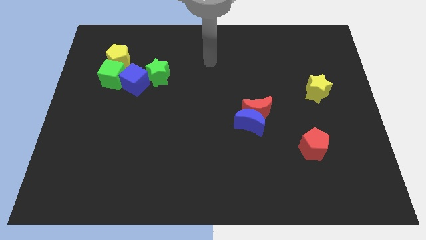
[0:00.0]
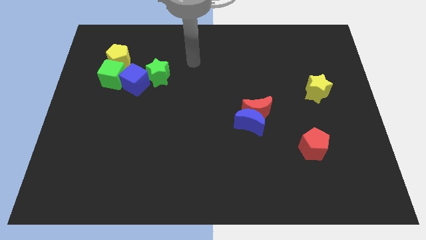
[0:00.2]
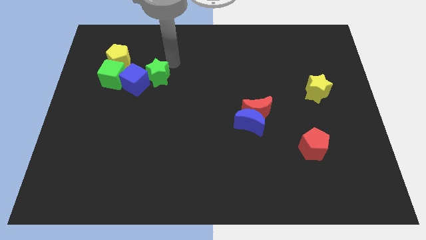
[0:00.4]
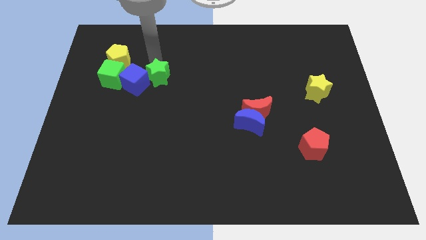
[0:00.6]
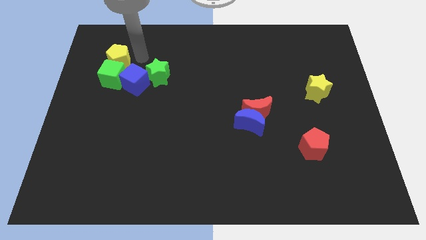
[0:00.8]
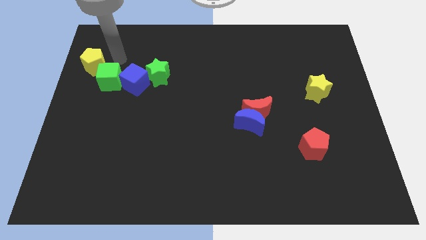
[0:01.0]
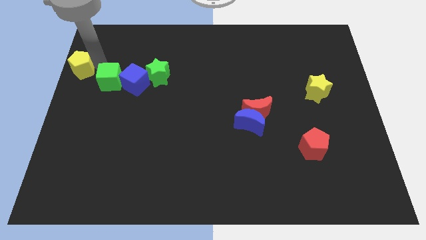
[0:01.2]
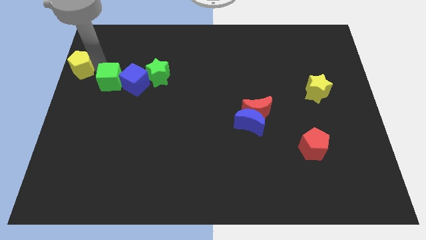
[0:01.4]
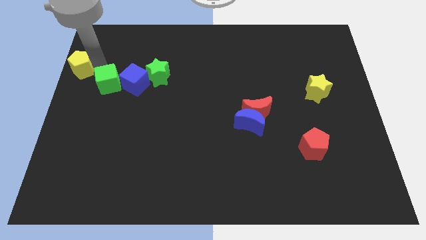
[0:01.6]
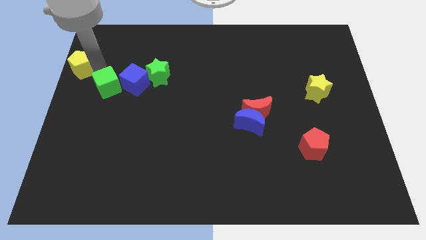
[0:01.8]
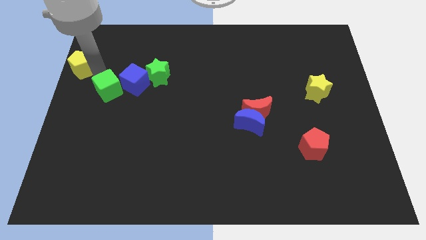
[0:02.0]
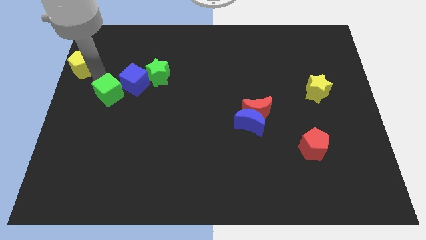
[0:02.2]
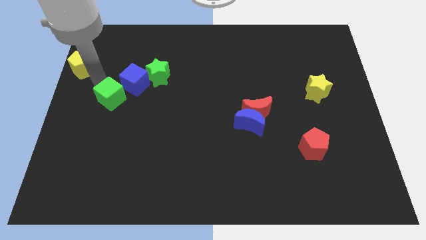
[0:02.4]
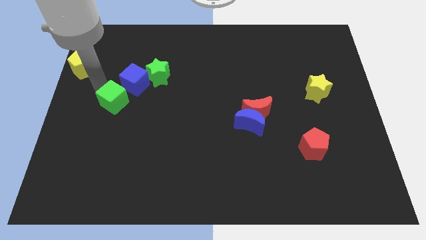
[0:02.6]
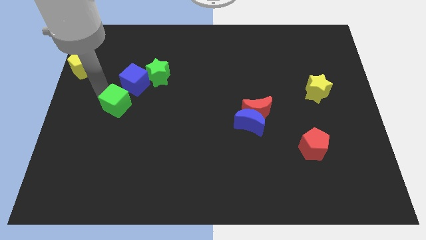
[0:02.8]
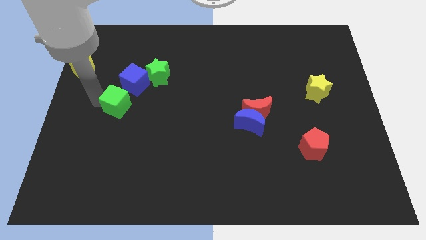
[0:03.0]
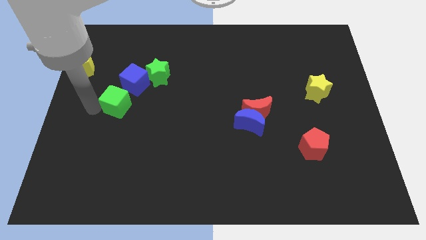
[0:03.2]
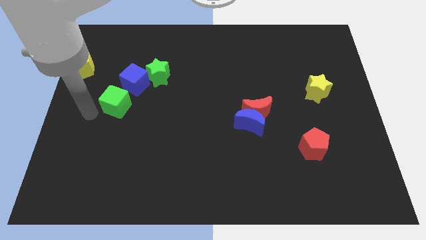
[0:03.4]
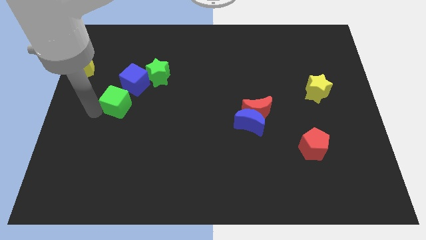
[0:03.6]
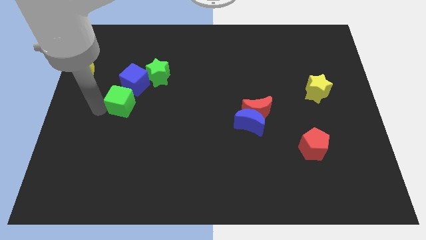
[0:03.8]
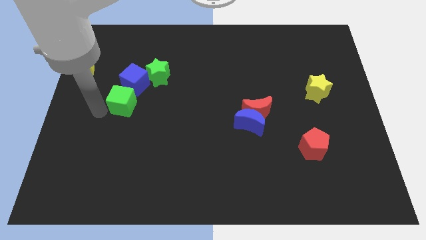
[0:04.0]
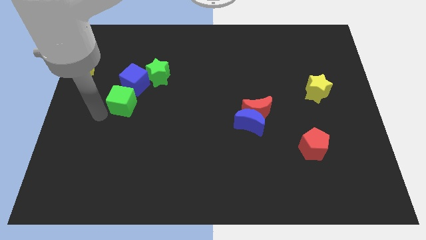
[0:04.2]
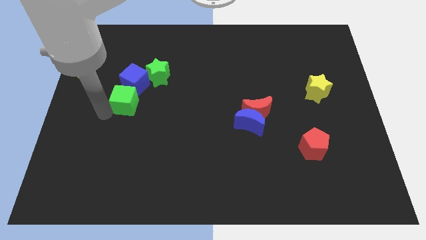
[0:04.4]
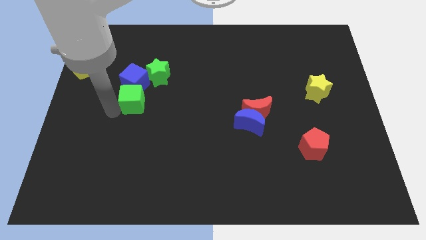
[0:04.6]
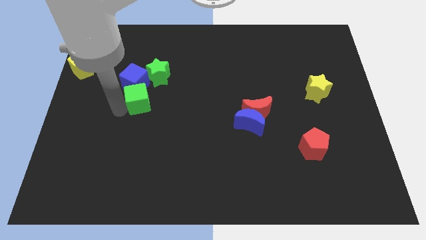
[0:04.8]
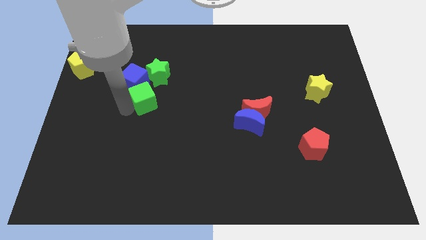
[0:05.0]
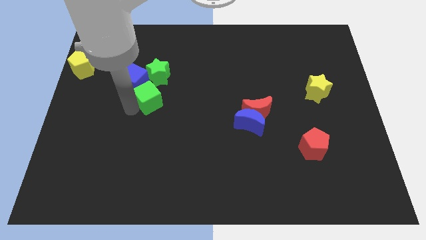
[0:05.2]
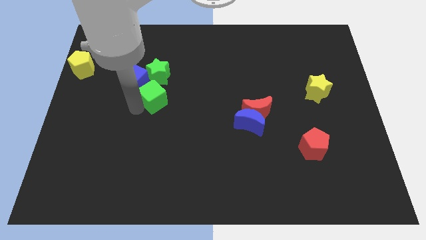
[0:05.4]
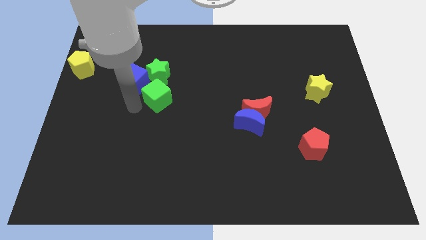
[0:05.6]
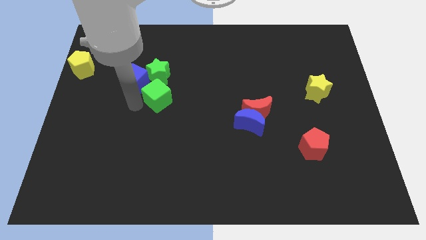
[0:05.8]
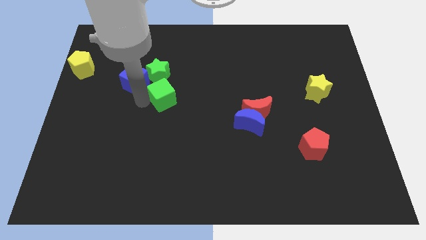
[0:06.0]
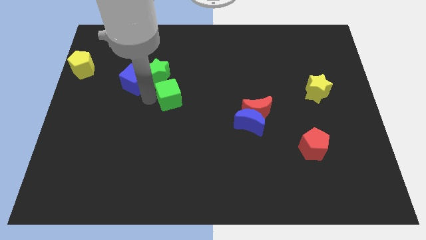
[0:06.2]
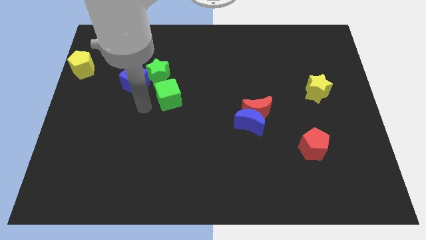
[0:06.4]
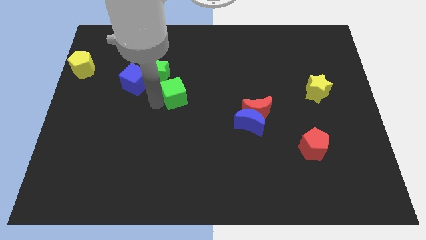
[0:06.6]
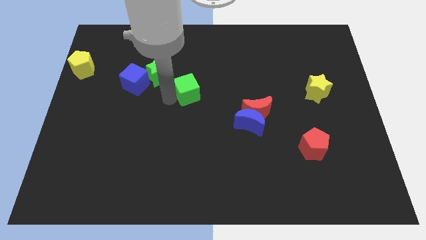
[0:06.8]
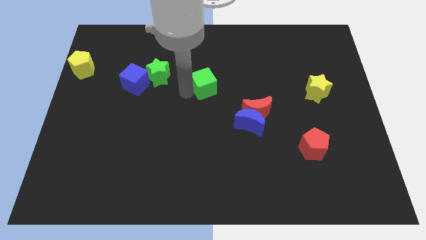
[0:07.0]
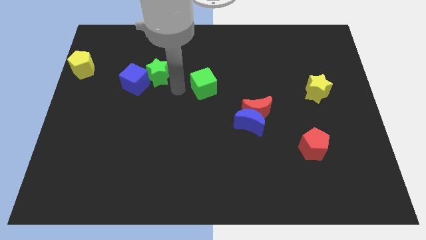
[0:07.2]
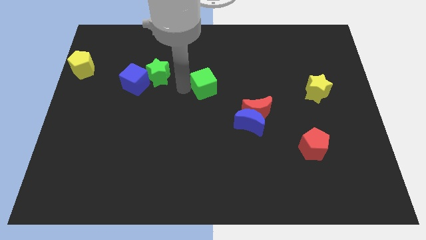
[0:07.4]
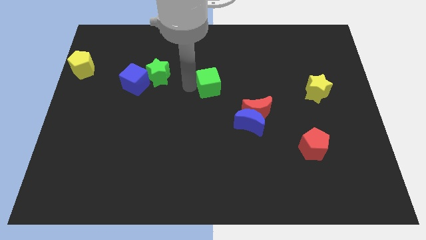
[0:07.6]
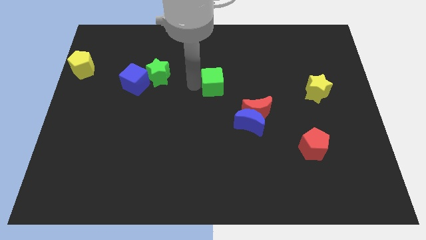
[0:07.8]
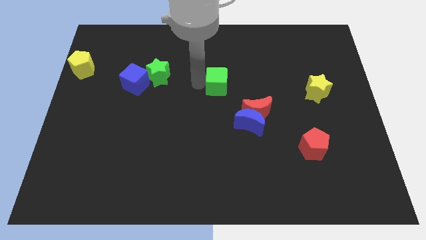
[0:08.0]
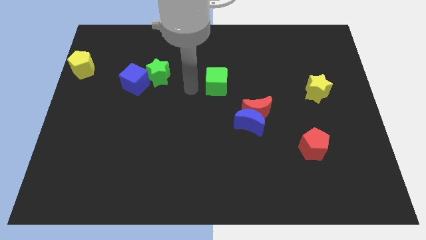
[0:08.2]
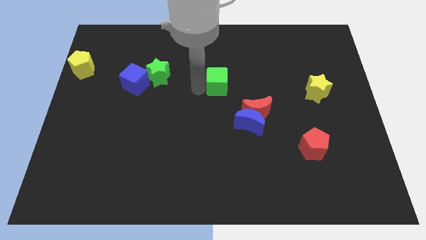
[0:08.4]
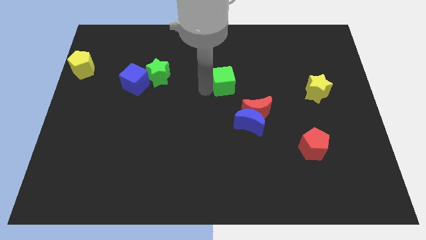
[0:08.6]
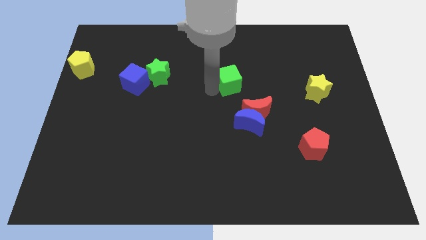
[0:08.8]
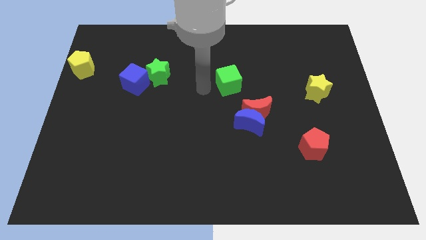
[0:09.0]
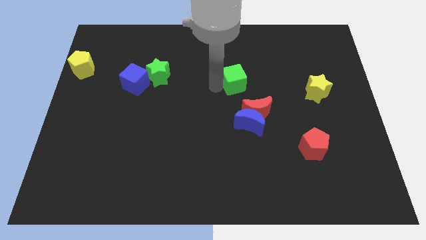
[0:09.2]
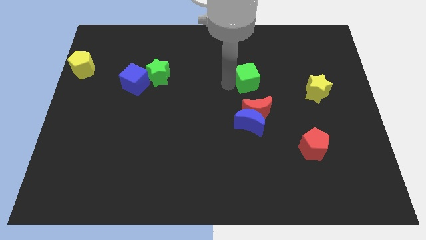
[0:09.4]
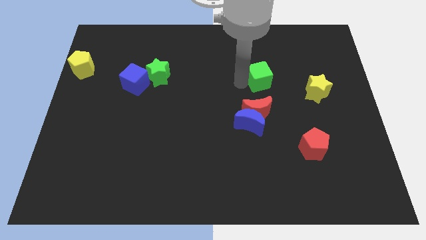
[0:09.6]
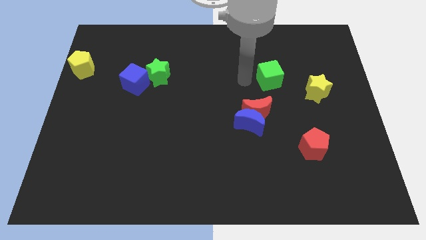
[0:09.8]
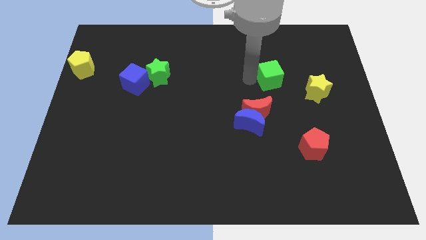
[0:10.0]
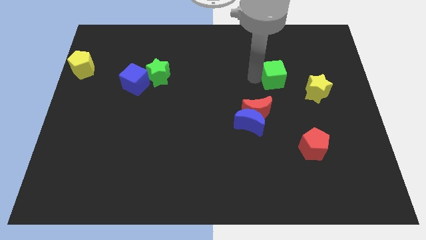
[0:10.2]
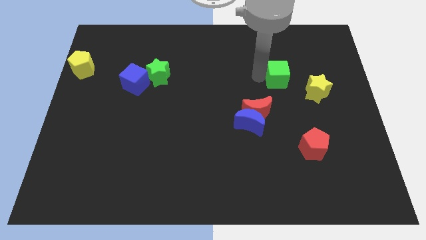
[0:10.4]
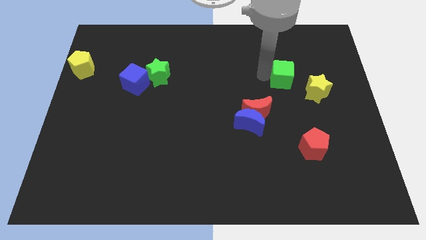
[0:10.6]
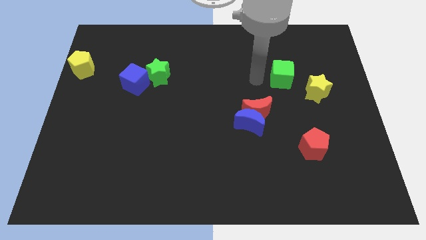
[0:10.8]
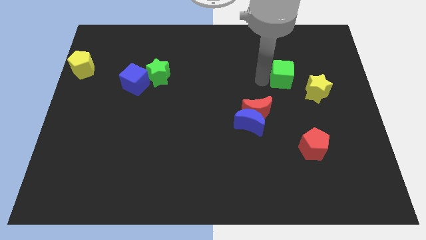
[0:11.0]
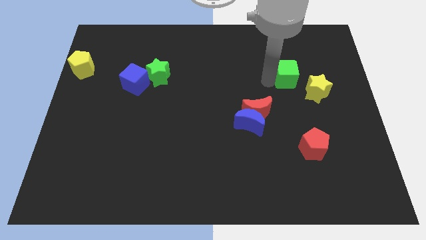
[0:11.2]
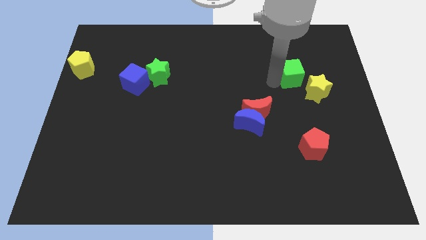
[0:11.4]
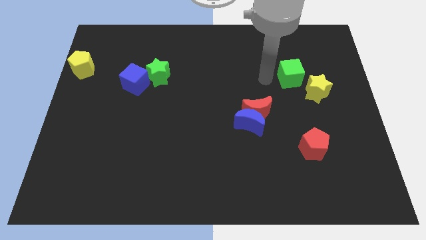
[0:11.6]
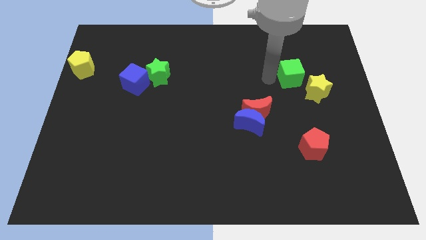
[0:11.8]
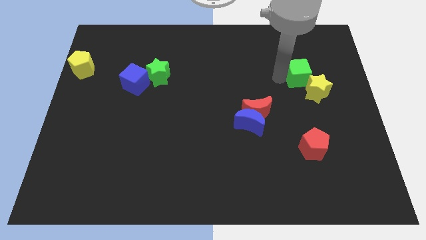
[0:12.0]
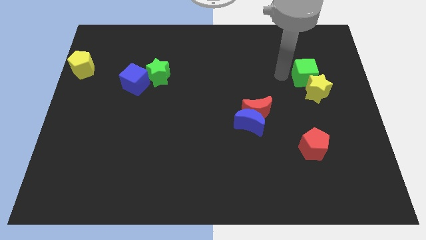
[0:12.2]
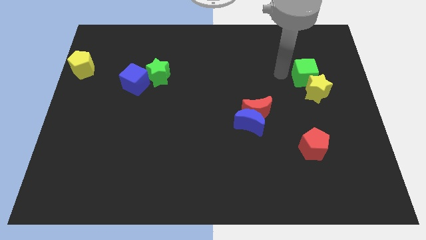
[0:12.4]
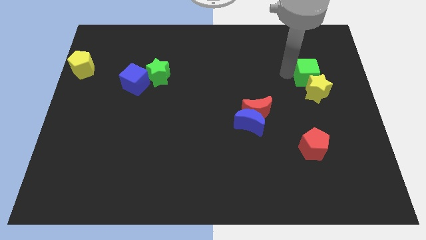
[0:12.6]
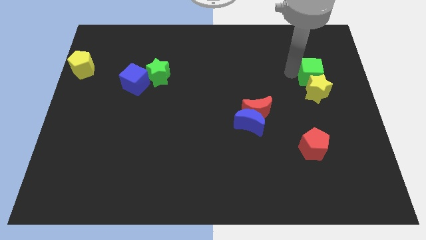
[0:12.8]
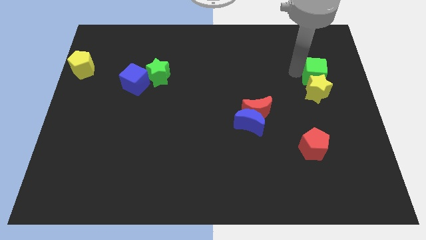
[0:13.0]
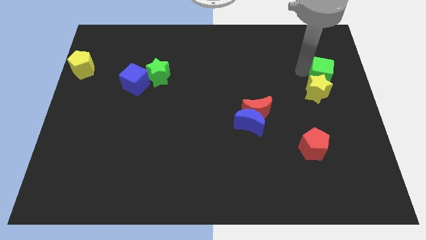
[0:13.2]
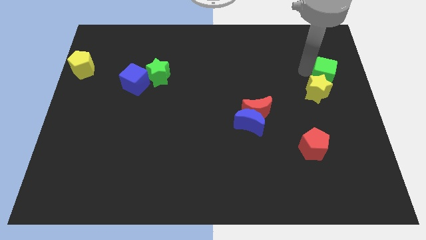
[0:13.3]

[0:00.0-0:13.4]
move the green cube to the right side of the board

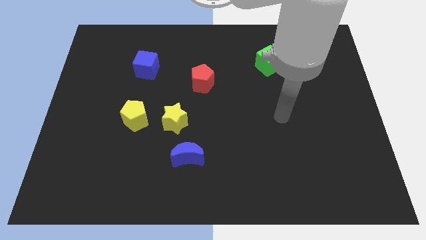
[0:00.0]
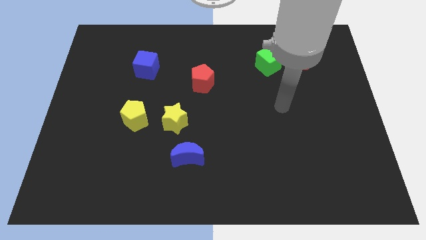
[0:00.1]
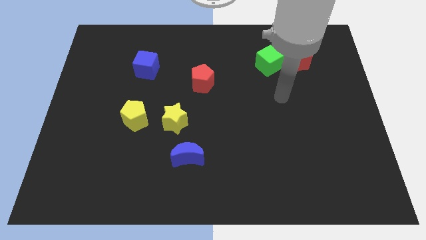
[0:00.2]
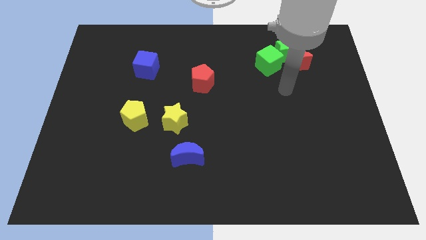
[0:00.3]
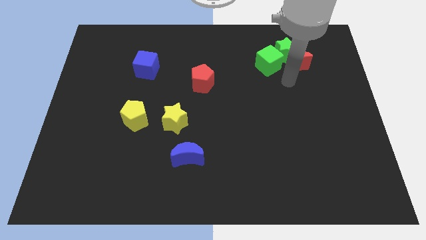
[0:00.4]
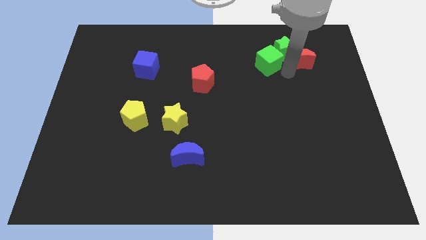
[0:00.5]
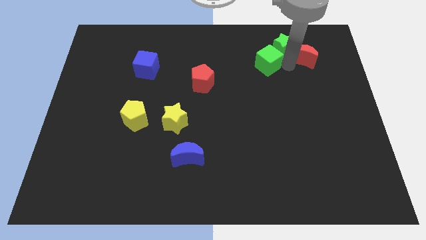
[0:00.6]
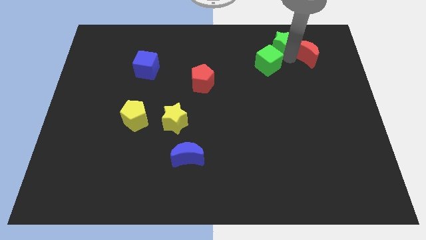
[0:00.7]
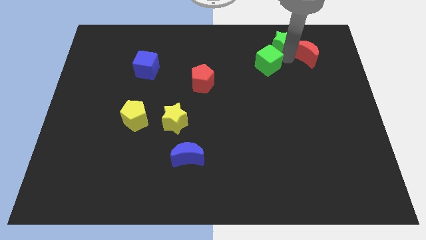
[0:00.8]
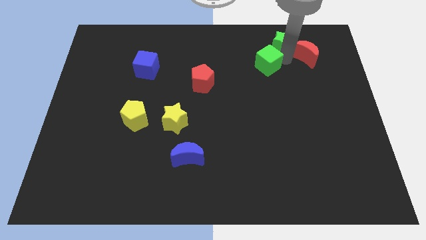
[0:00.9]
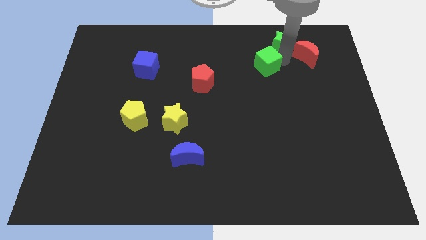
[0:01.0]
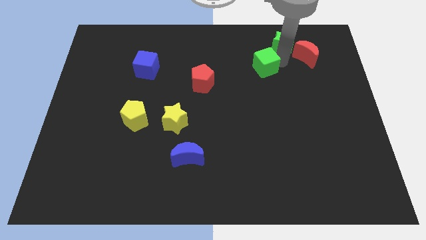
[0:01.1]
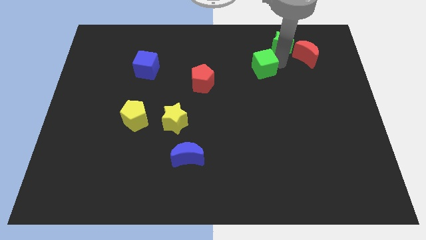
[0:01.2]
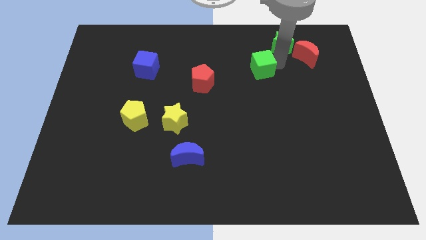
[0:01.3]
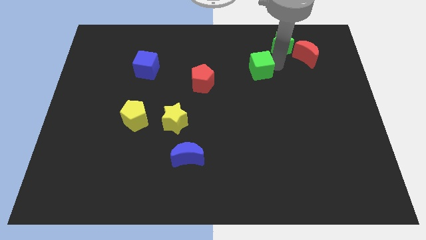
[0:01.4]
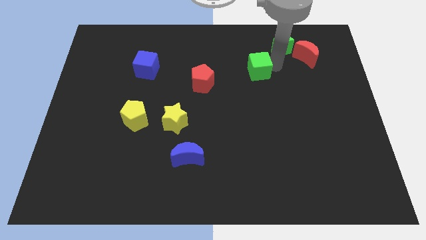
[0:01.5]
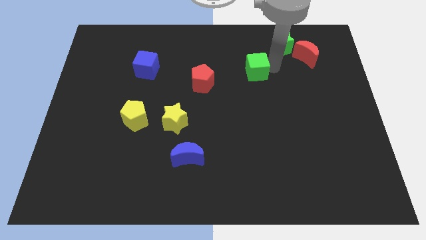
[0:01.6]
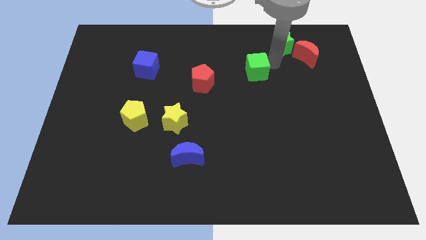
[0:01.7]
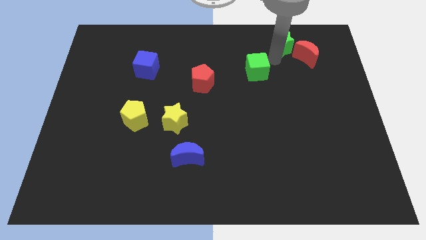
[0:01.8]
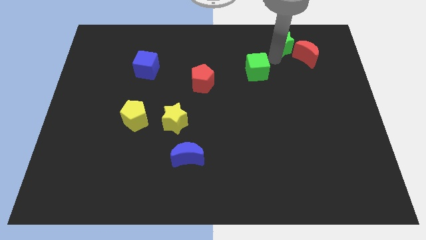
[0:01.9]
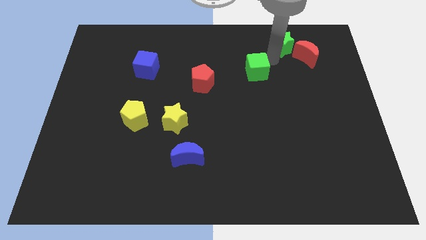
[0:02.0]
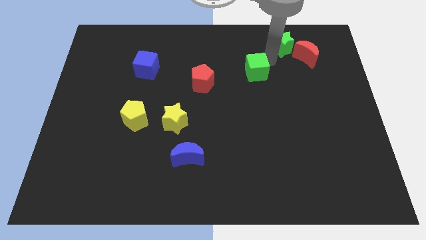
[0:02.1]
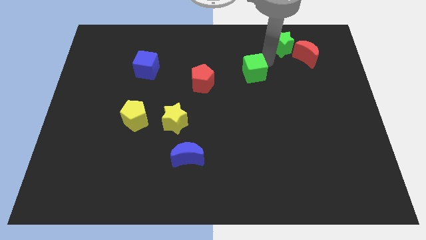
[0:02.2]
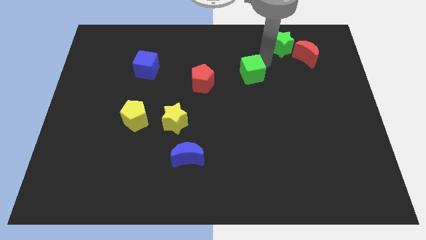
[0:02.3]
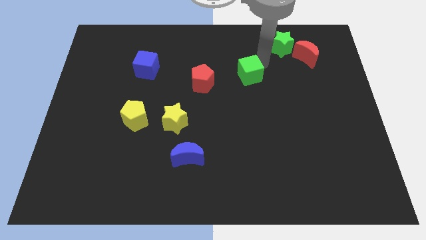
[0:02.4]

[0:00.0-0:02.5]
move the green cube to the middle of the board
